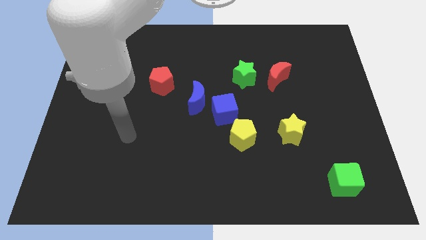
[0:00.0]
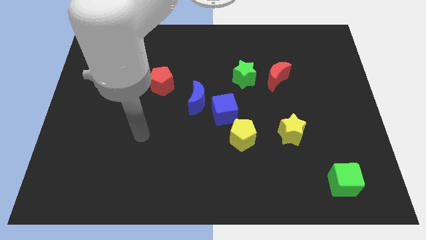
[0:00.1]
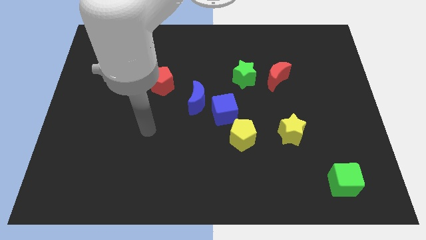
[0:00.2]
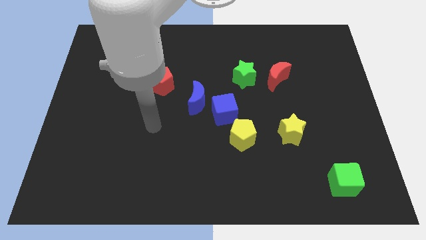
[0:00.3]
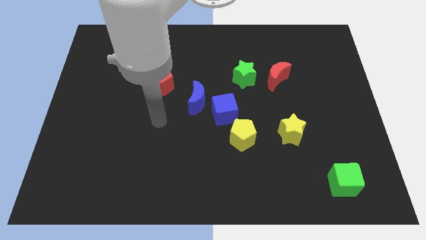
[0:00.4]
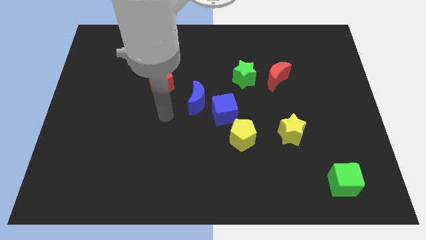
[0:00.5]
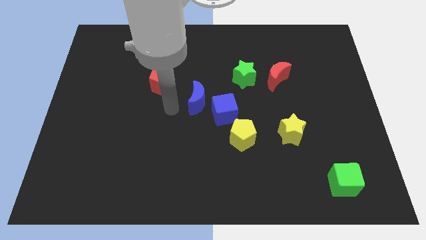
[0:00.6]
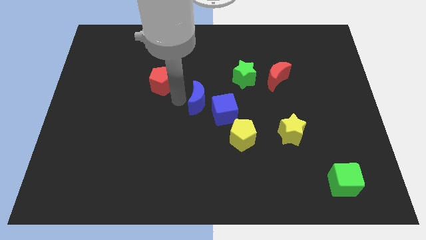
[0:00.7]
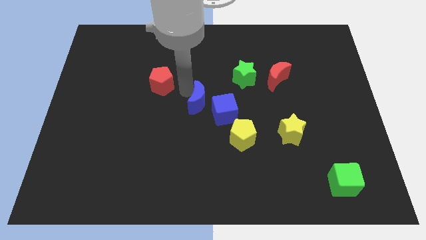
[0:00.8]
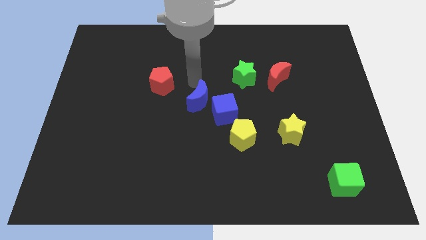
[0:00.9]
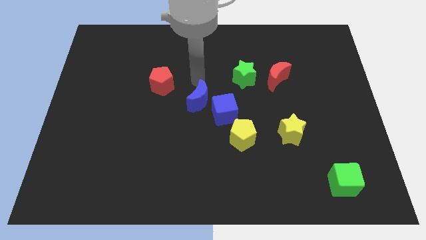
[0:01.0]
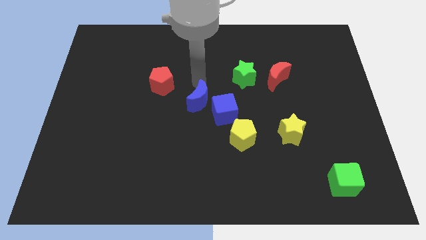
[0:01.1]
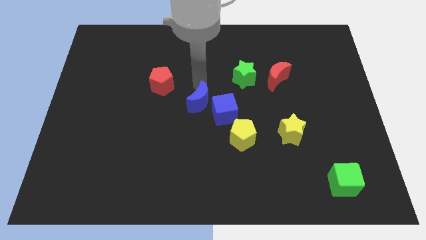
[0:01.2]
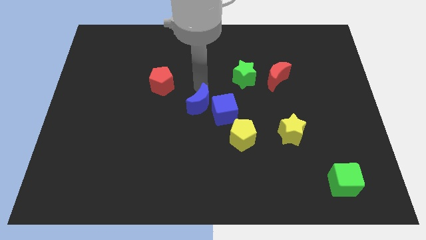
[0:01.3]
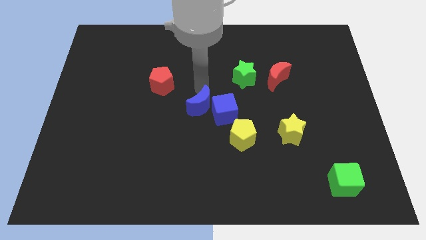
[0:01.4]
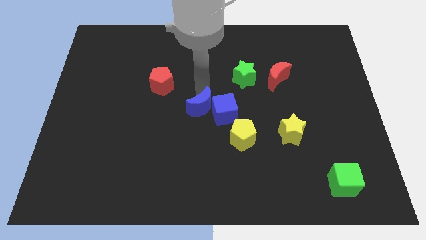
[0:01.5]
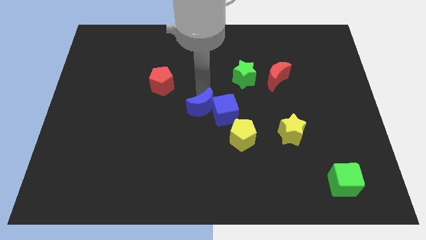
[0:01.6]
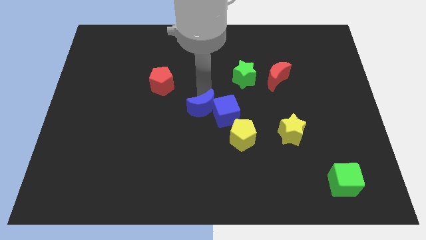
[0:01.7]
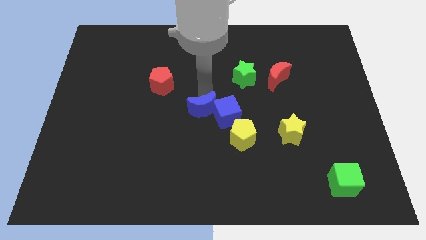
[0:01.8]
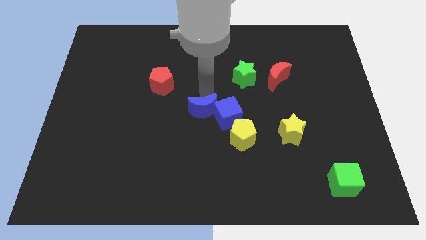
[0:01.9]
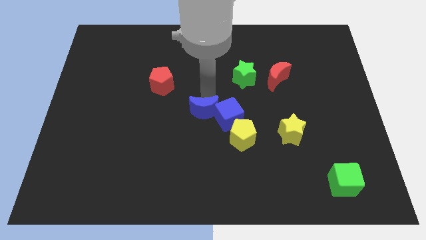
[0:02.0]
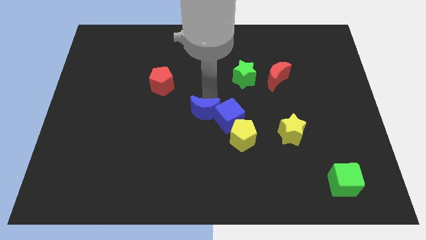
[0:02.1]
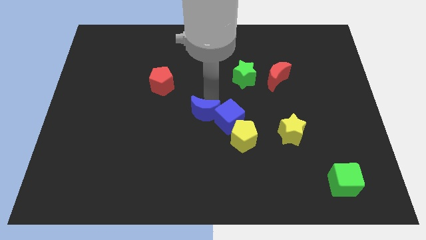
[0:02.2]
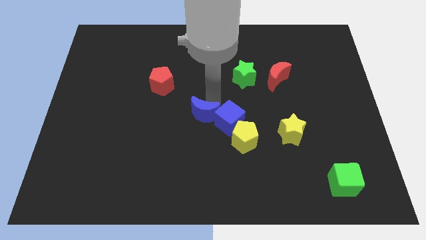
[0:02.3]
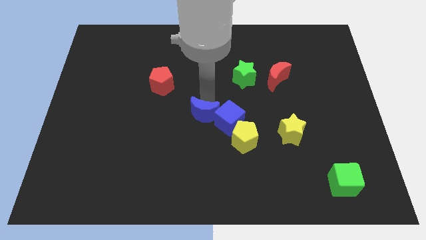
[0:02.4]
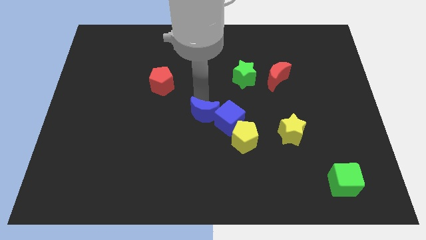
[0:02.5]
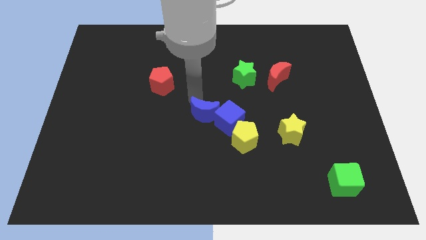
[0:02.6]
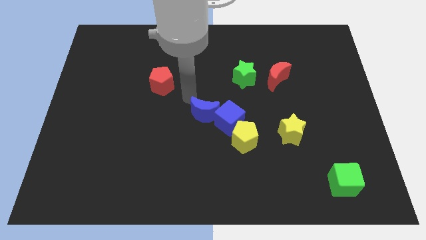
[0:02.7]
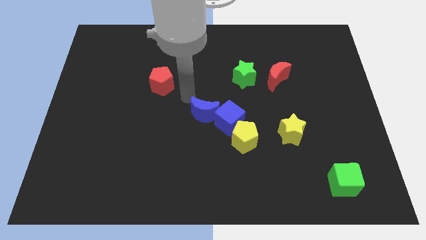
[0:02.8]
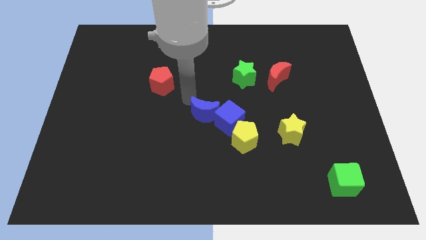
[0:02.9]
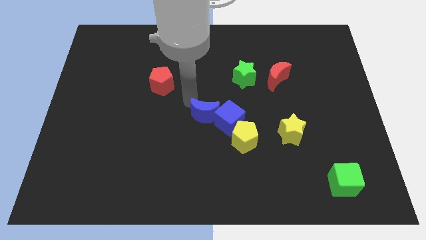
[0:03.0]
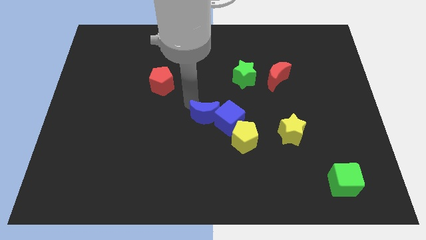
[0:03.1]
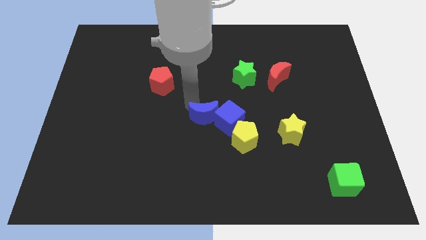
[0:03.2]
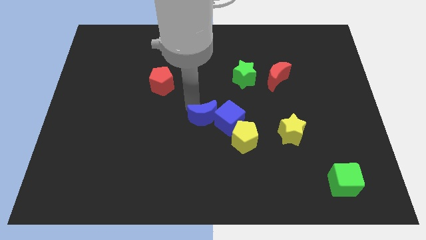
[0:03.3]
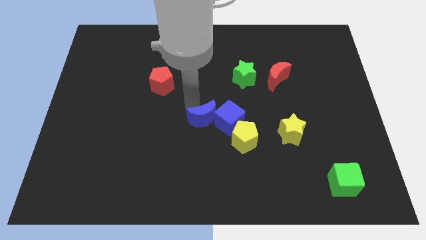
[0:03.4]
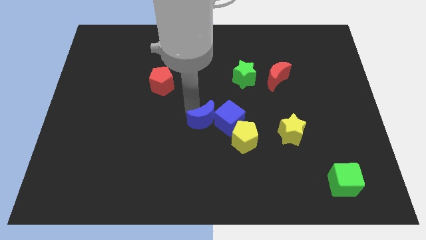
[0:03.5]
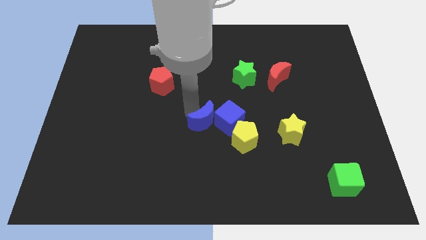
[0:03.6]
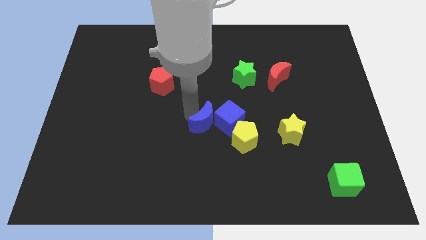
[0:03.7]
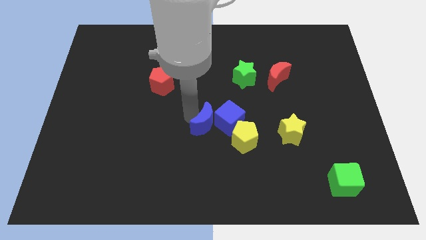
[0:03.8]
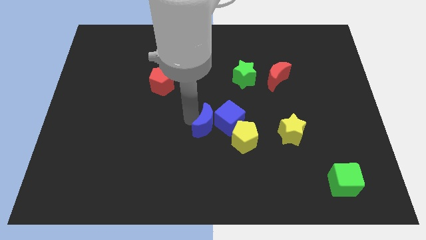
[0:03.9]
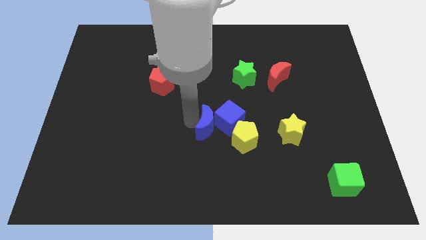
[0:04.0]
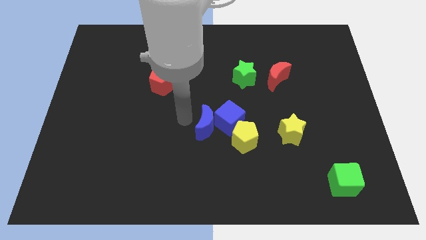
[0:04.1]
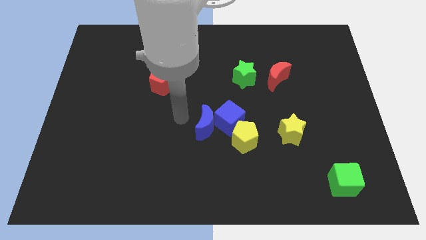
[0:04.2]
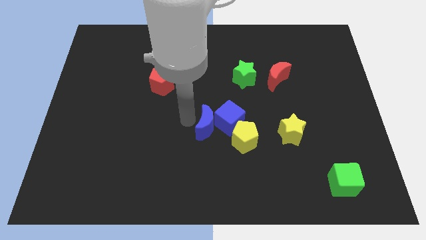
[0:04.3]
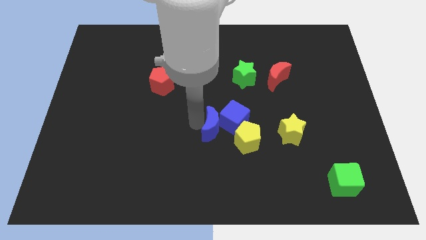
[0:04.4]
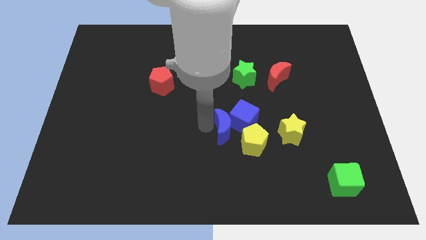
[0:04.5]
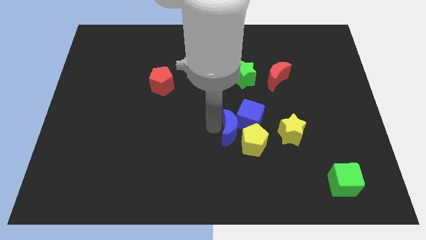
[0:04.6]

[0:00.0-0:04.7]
put the blue moon to the yellow pentagon

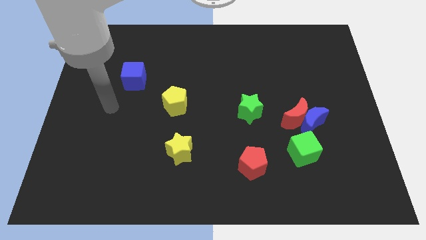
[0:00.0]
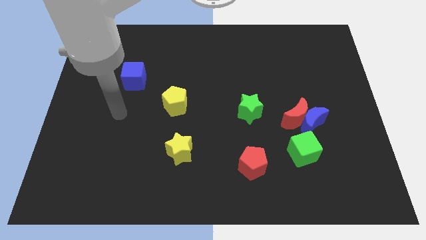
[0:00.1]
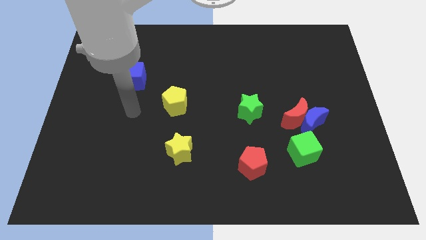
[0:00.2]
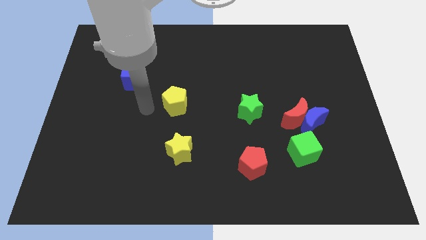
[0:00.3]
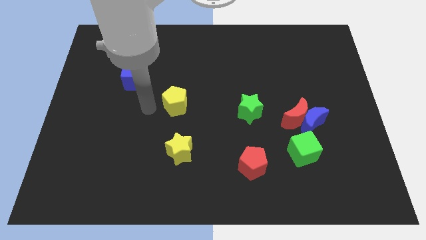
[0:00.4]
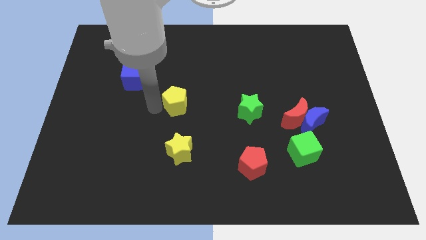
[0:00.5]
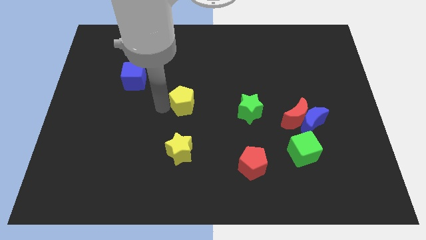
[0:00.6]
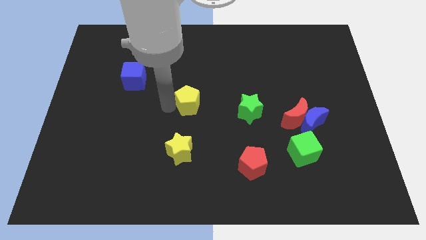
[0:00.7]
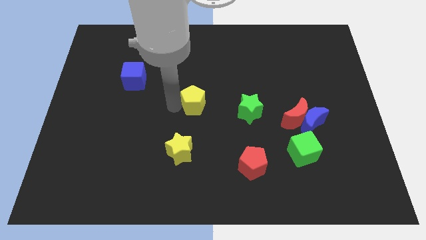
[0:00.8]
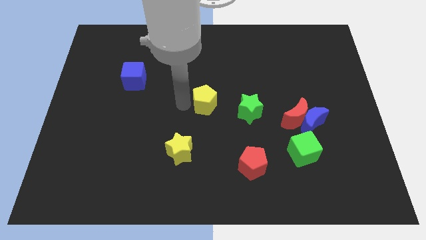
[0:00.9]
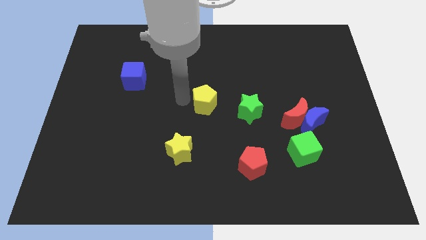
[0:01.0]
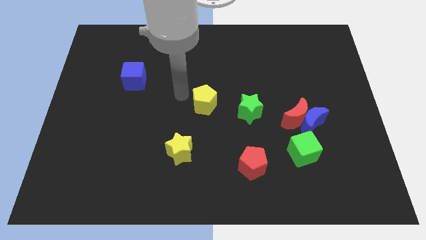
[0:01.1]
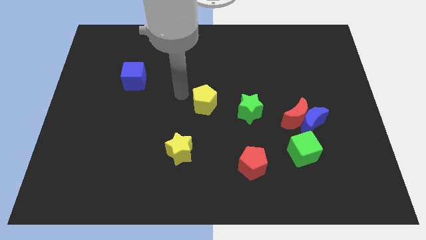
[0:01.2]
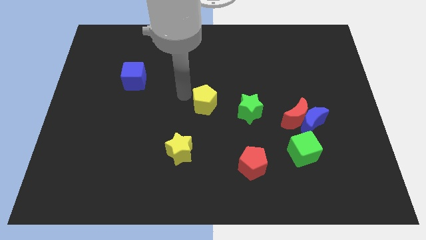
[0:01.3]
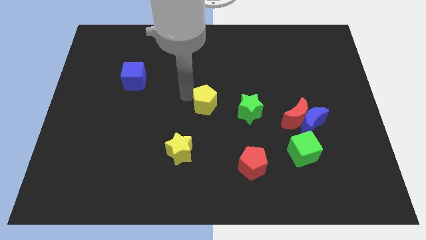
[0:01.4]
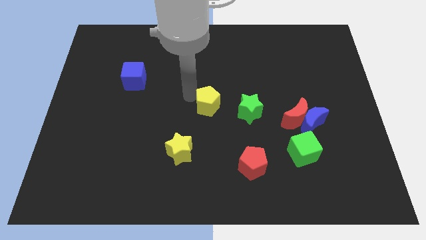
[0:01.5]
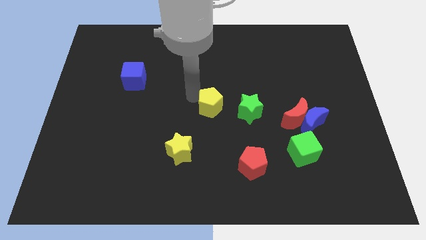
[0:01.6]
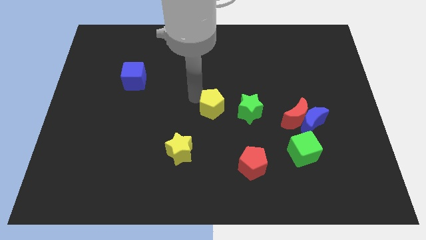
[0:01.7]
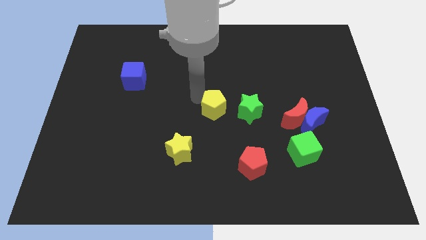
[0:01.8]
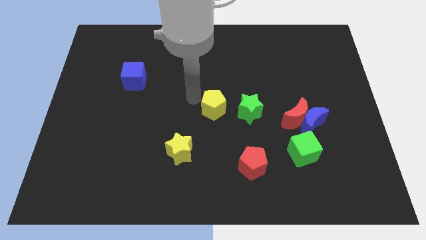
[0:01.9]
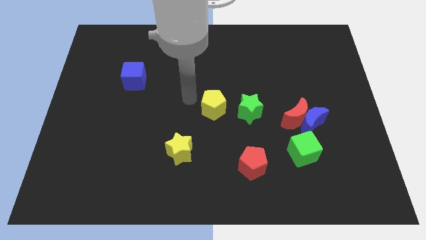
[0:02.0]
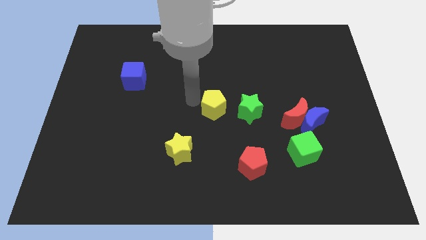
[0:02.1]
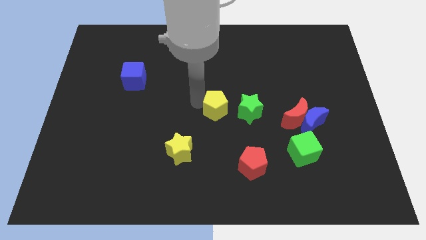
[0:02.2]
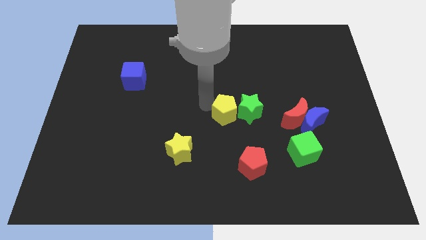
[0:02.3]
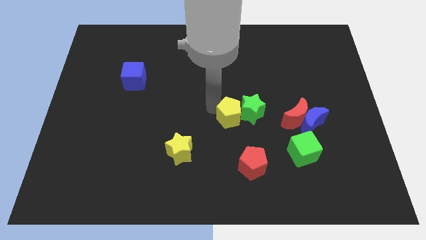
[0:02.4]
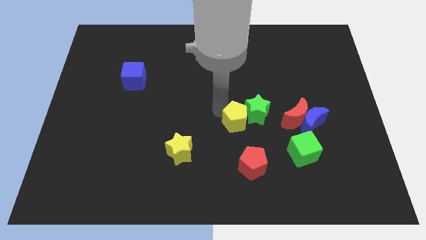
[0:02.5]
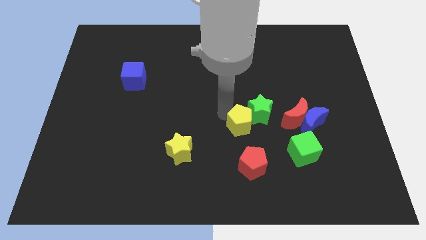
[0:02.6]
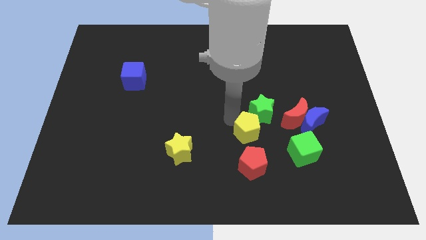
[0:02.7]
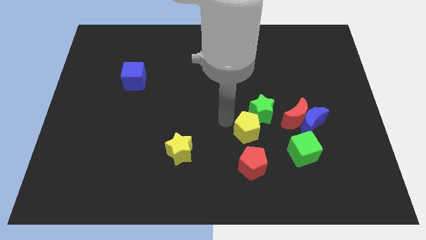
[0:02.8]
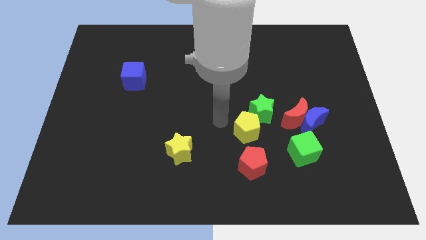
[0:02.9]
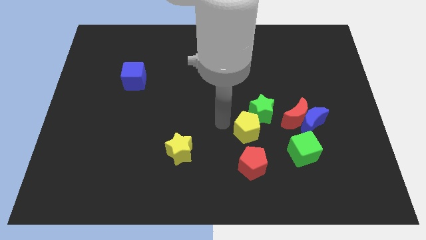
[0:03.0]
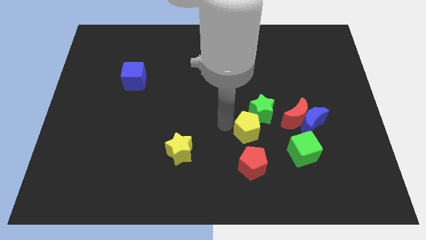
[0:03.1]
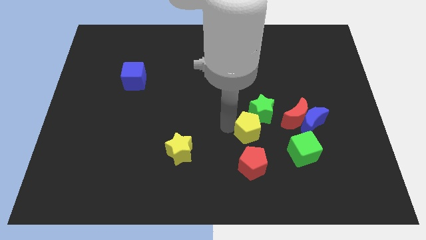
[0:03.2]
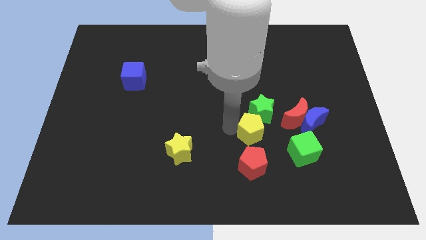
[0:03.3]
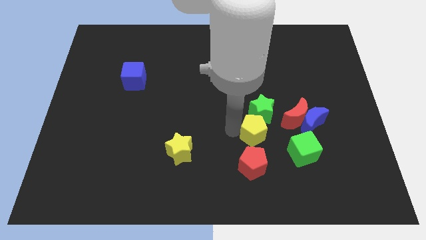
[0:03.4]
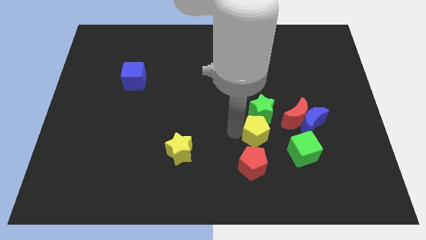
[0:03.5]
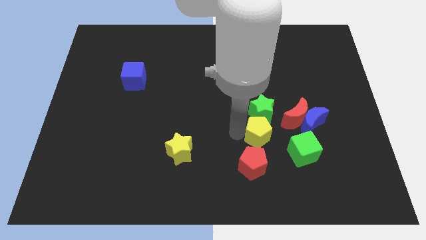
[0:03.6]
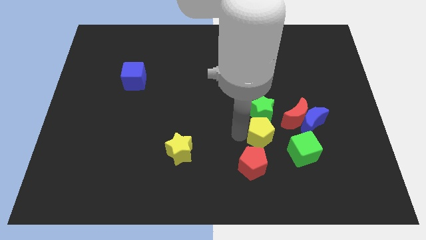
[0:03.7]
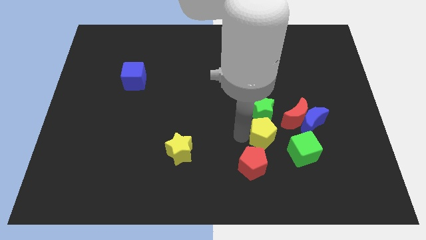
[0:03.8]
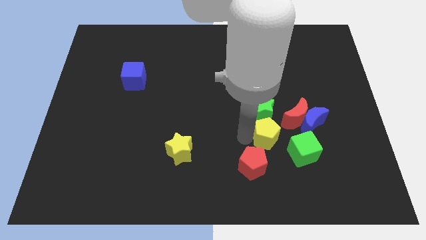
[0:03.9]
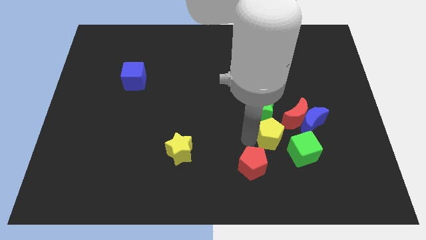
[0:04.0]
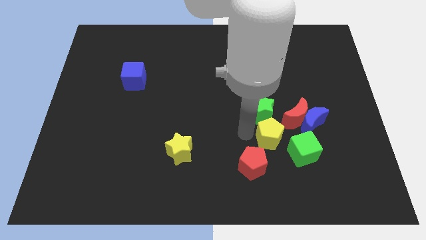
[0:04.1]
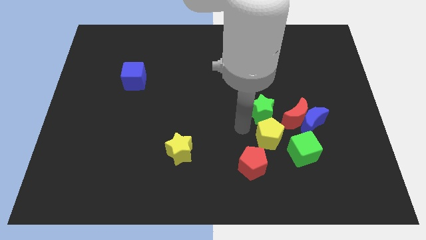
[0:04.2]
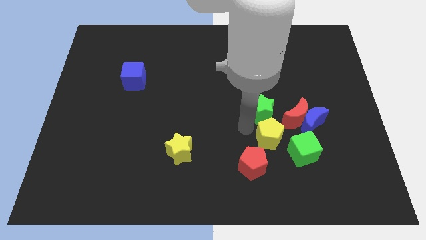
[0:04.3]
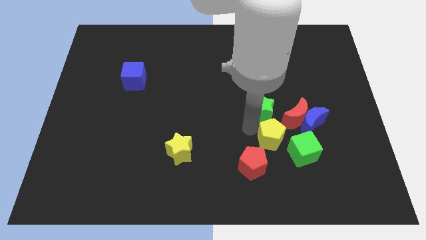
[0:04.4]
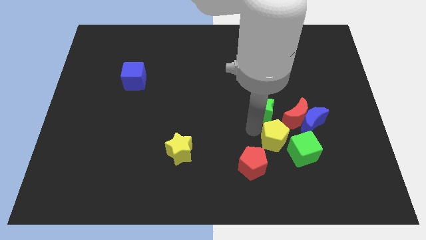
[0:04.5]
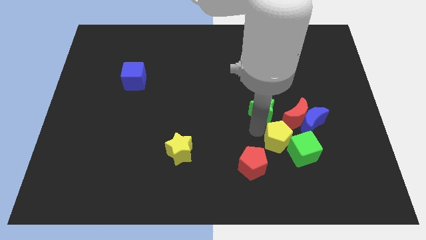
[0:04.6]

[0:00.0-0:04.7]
move the yellow pentagon next to the green cube
